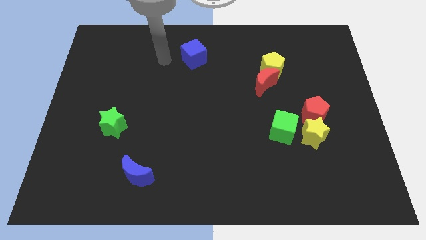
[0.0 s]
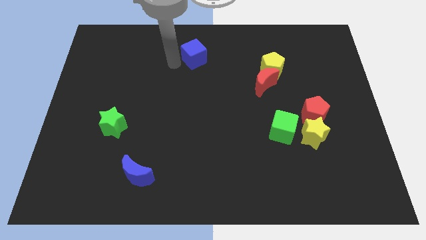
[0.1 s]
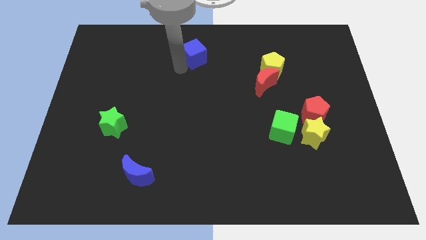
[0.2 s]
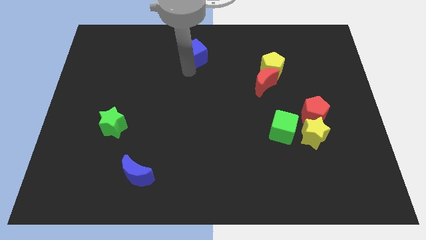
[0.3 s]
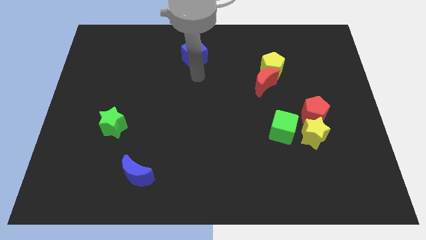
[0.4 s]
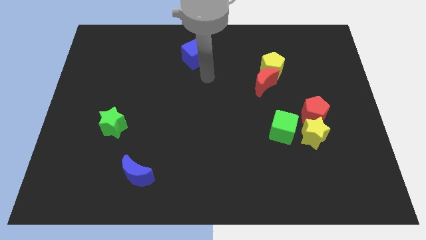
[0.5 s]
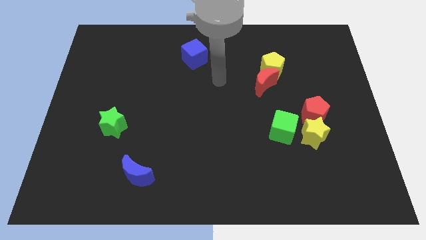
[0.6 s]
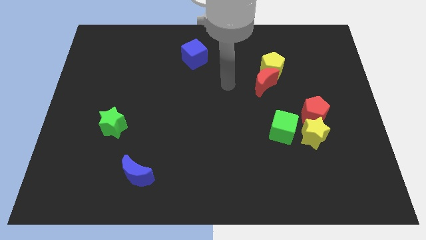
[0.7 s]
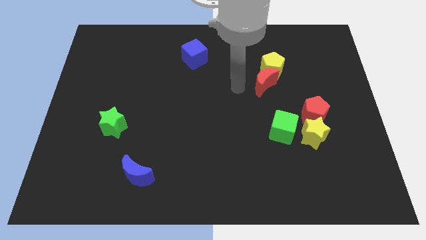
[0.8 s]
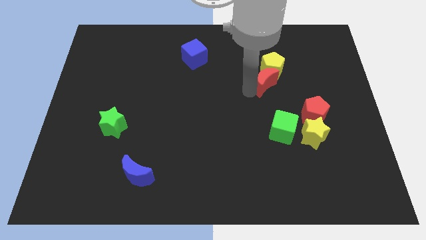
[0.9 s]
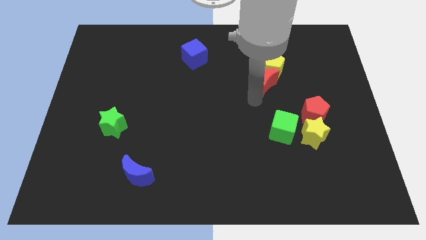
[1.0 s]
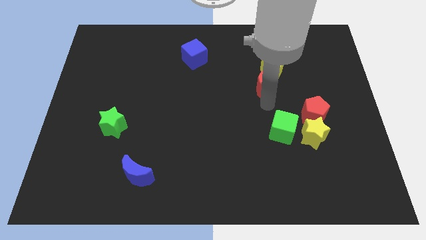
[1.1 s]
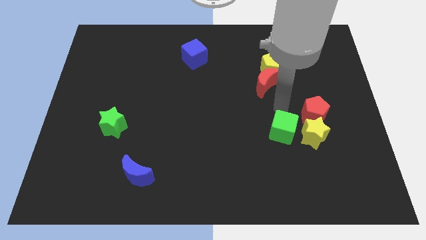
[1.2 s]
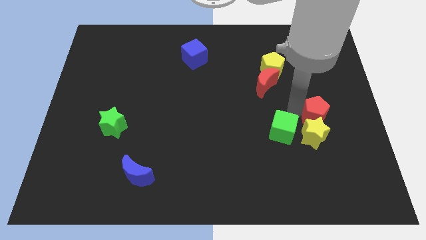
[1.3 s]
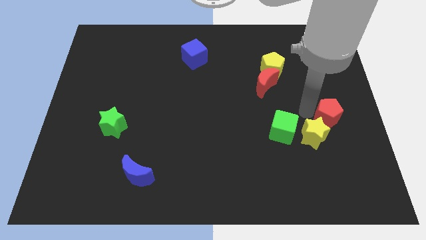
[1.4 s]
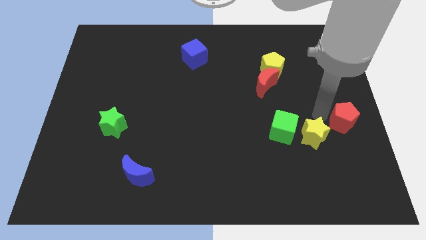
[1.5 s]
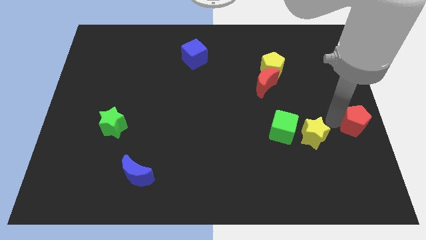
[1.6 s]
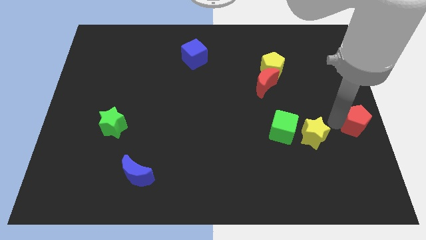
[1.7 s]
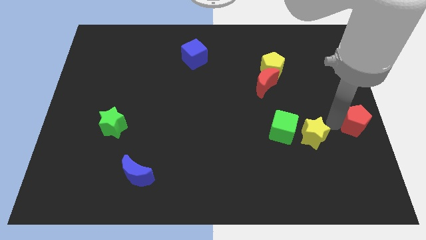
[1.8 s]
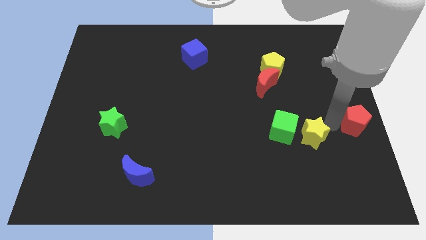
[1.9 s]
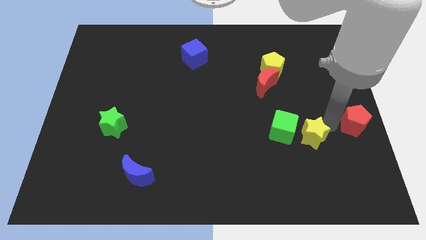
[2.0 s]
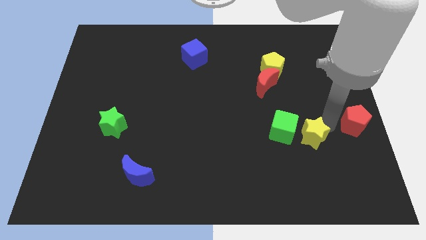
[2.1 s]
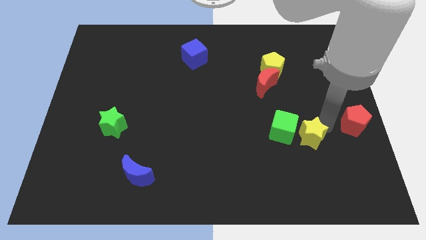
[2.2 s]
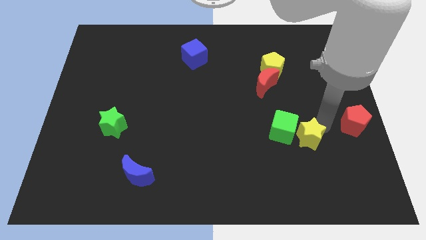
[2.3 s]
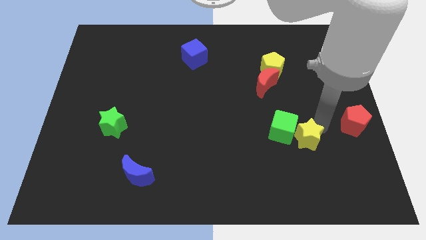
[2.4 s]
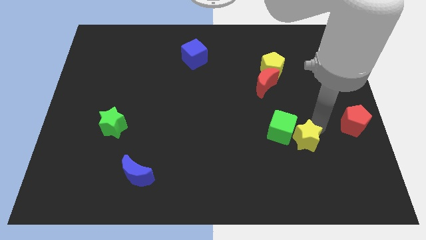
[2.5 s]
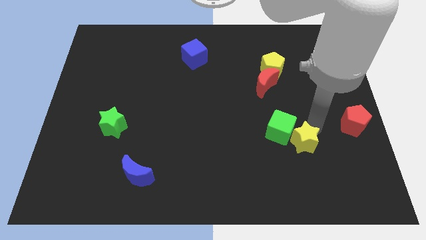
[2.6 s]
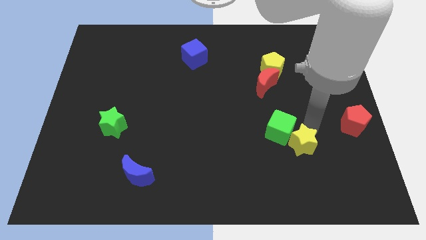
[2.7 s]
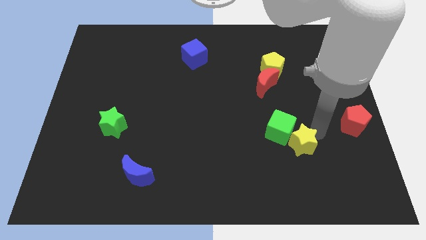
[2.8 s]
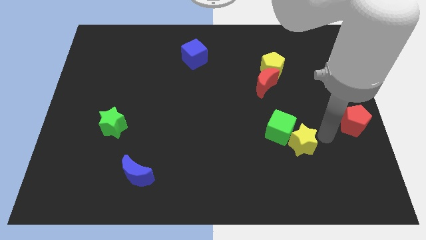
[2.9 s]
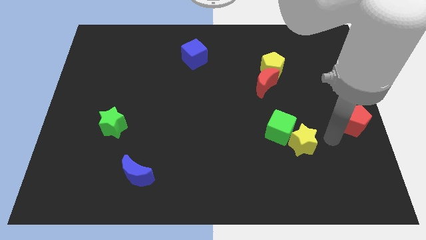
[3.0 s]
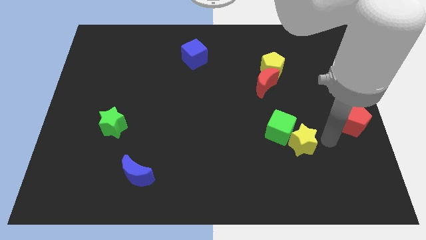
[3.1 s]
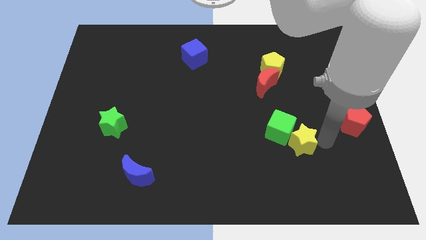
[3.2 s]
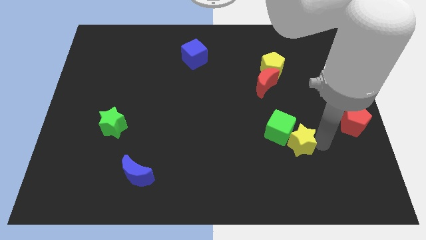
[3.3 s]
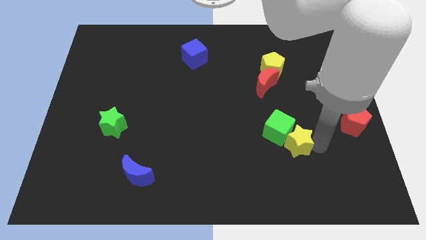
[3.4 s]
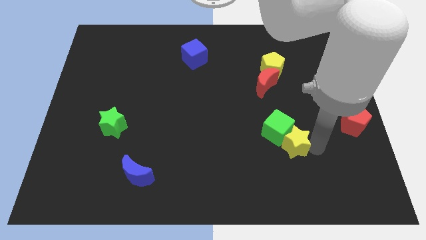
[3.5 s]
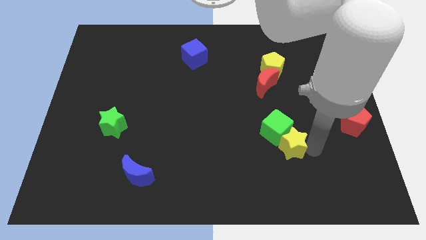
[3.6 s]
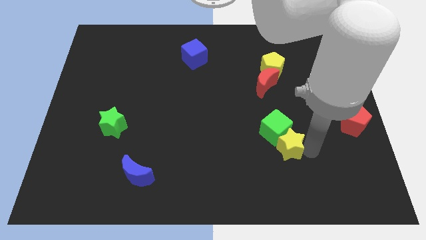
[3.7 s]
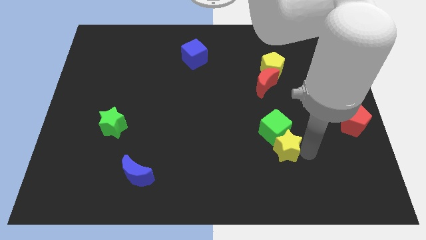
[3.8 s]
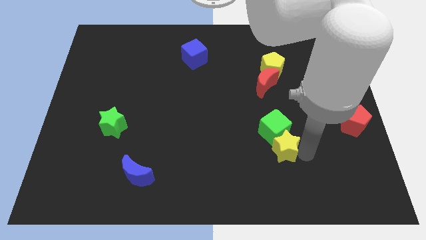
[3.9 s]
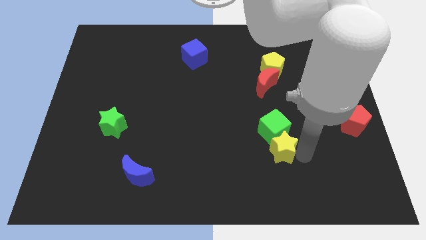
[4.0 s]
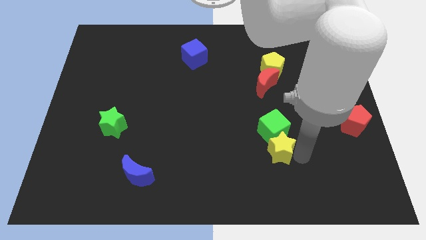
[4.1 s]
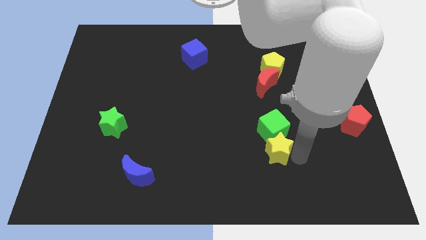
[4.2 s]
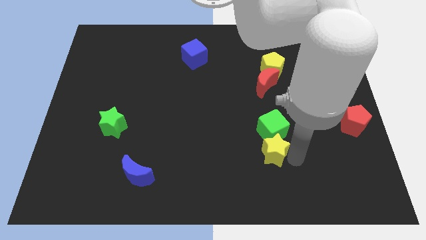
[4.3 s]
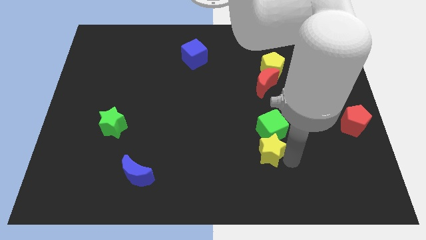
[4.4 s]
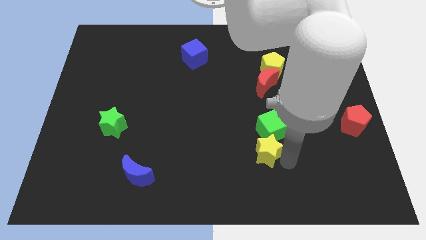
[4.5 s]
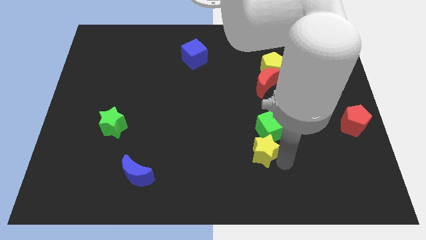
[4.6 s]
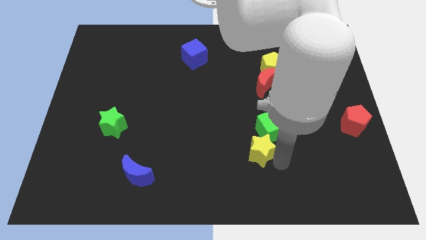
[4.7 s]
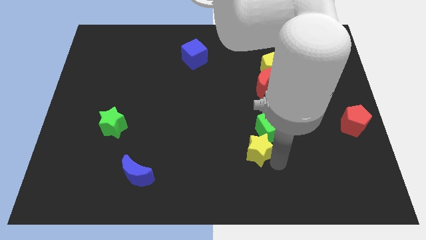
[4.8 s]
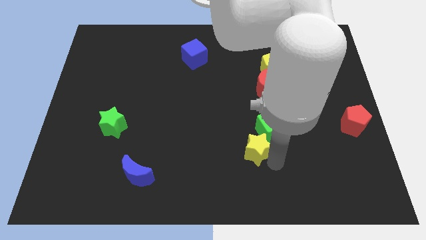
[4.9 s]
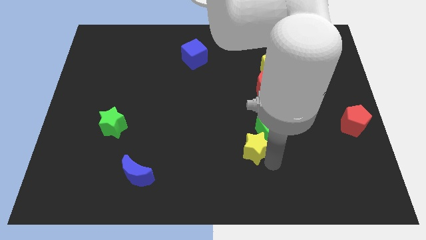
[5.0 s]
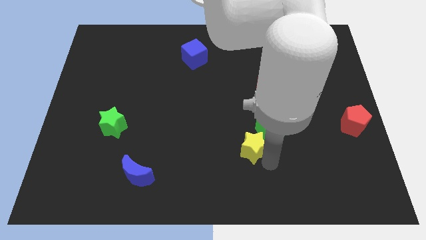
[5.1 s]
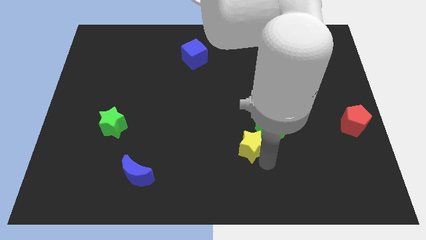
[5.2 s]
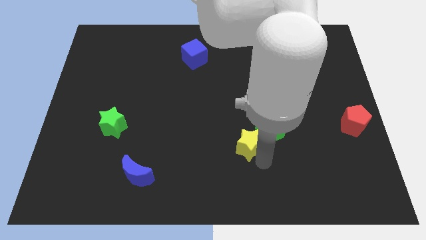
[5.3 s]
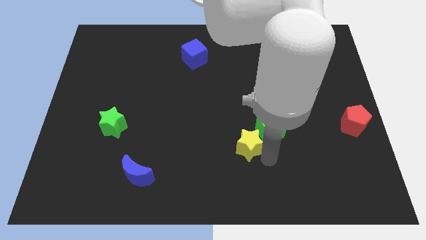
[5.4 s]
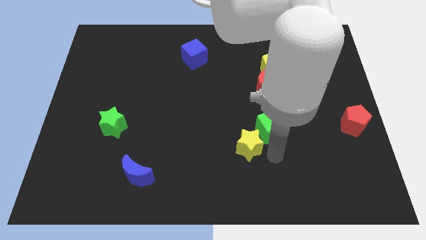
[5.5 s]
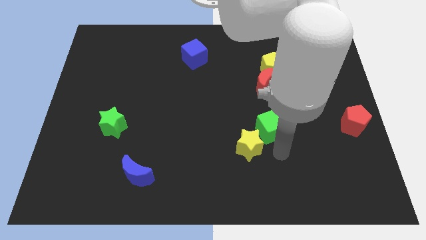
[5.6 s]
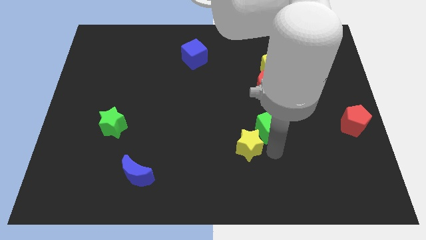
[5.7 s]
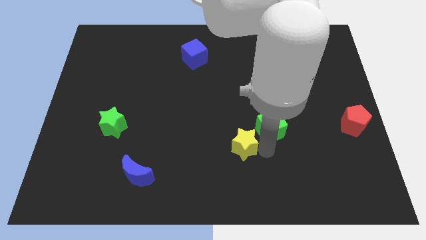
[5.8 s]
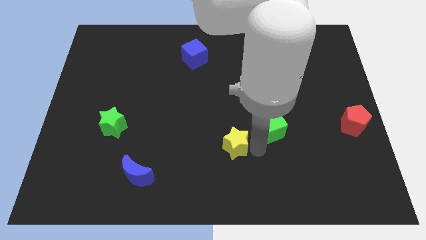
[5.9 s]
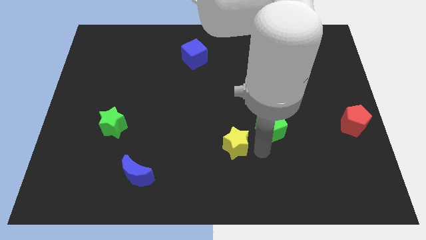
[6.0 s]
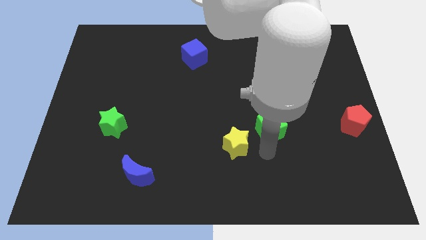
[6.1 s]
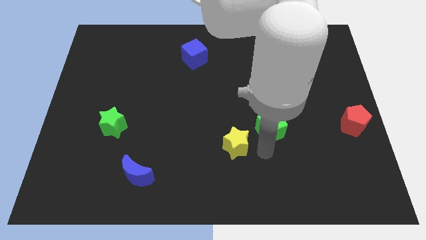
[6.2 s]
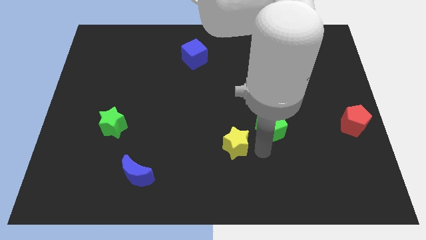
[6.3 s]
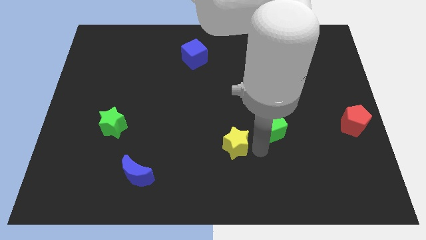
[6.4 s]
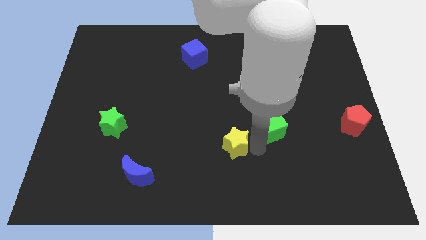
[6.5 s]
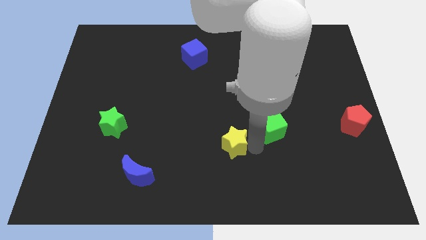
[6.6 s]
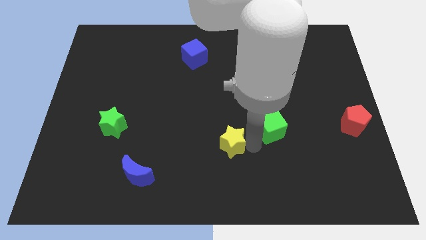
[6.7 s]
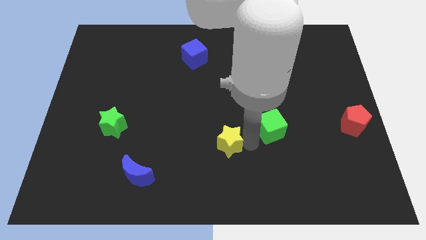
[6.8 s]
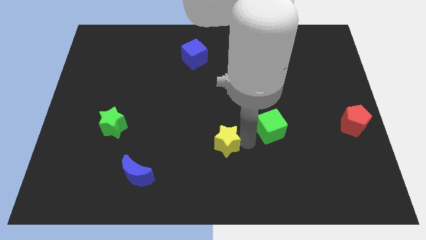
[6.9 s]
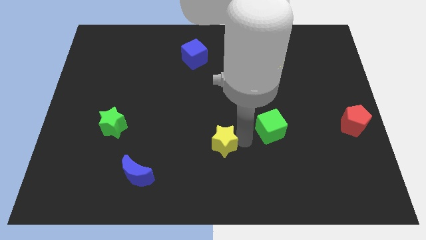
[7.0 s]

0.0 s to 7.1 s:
push the yellow star to the left

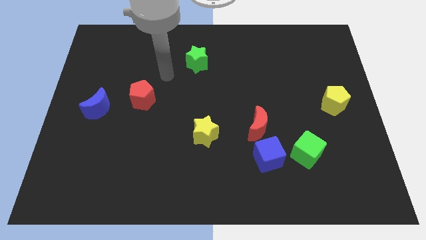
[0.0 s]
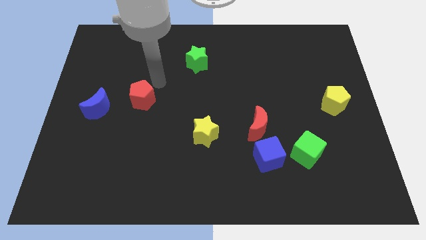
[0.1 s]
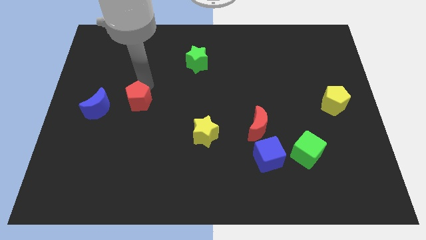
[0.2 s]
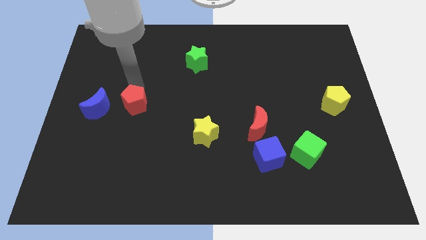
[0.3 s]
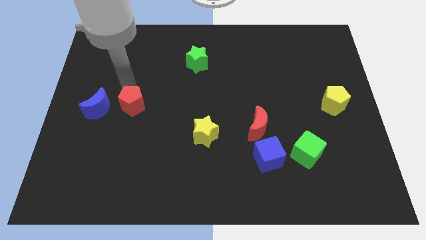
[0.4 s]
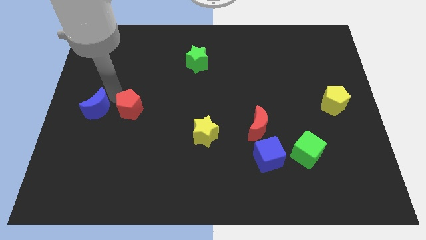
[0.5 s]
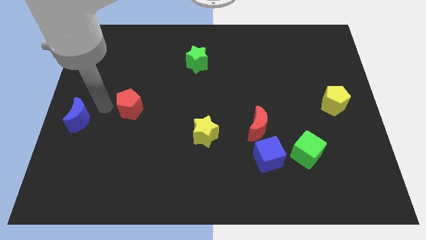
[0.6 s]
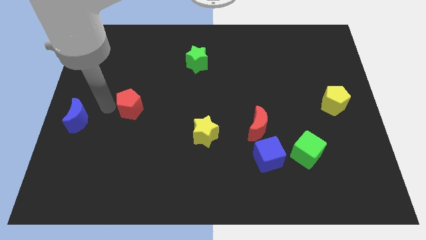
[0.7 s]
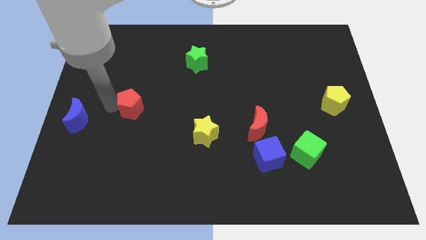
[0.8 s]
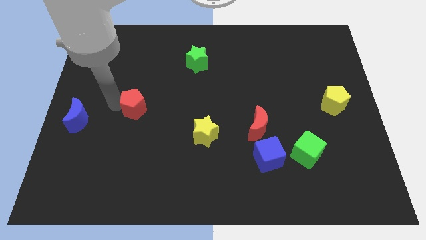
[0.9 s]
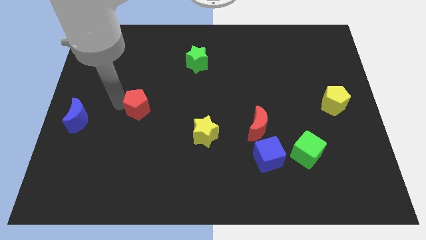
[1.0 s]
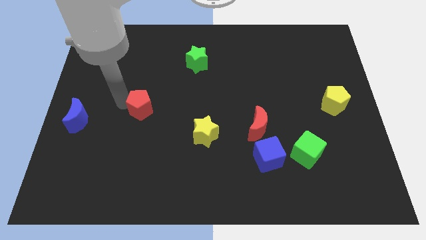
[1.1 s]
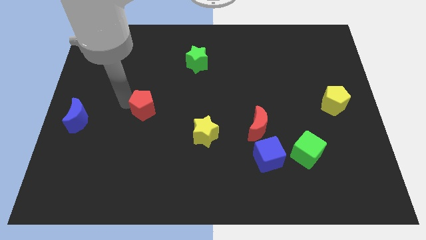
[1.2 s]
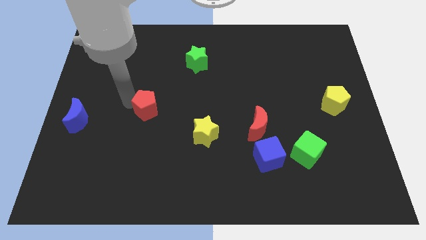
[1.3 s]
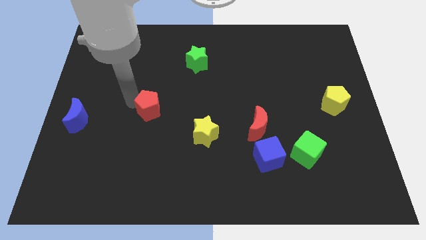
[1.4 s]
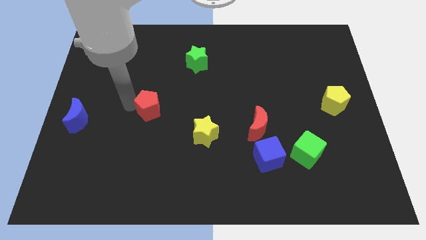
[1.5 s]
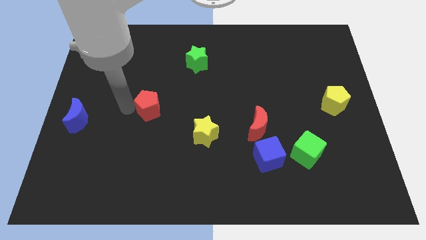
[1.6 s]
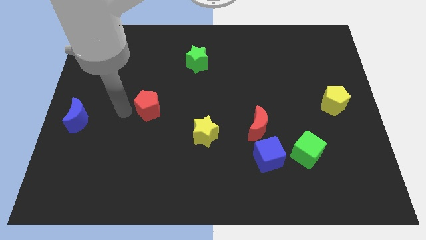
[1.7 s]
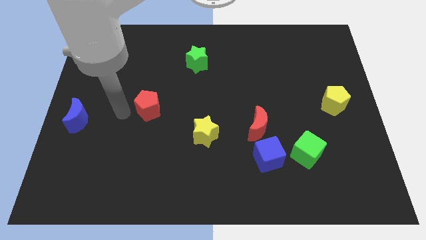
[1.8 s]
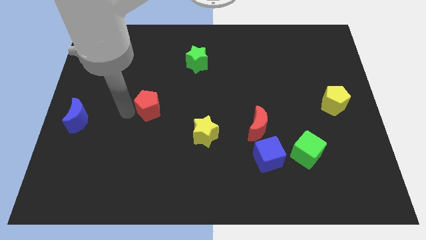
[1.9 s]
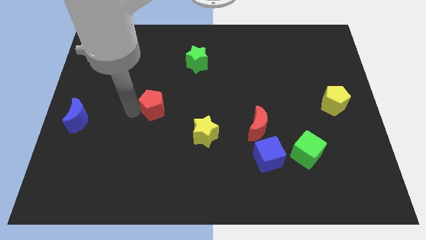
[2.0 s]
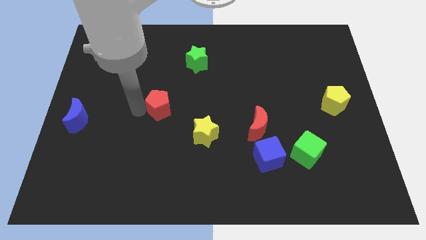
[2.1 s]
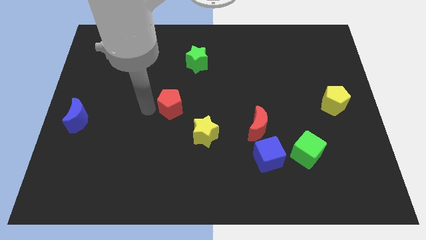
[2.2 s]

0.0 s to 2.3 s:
move the red pentagon slightly to the right
